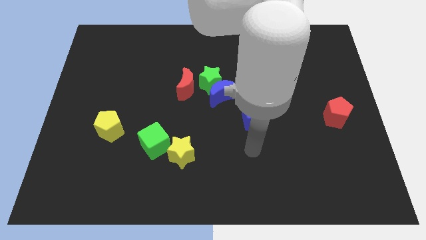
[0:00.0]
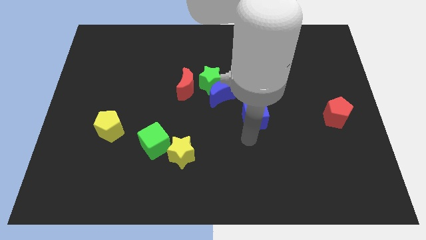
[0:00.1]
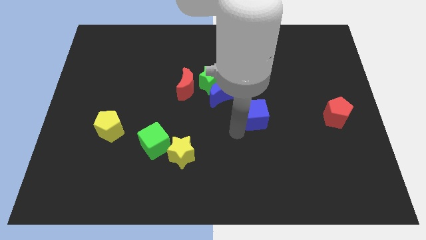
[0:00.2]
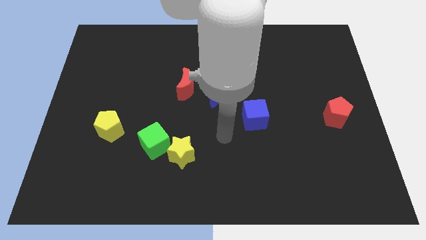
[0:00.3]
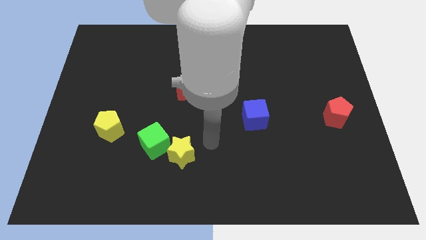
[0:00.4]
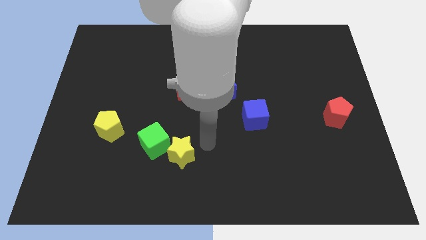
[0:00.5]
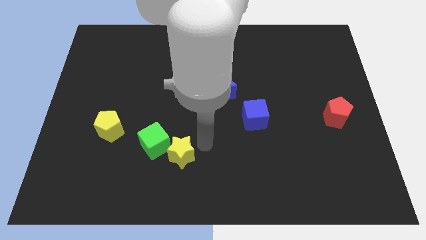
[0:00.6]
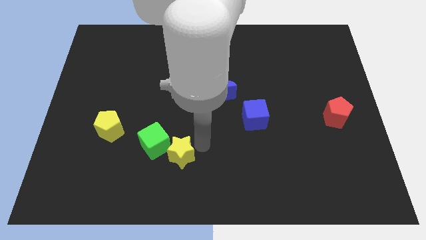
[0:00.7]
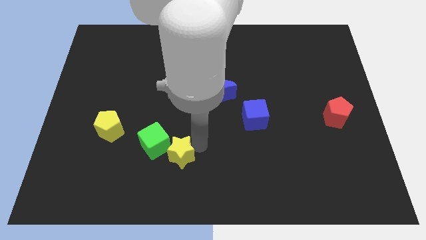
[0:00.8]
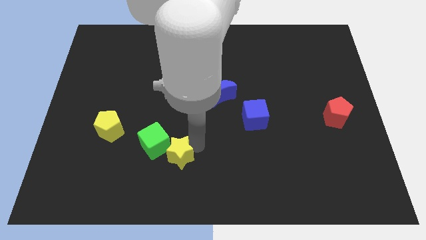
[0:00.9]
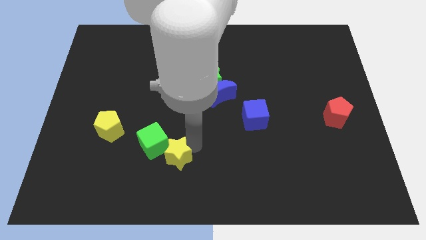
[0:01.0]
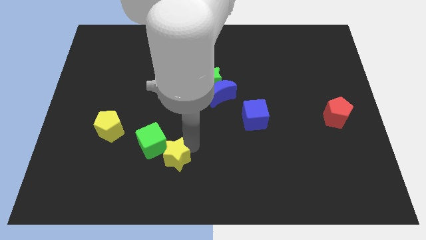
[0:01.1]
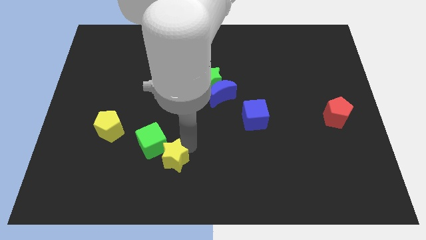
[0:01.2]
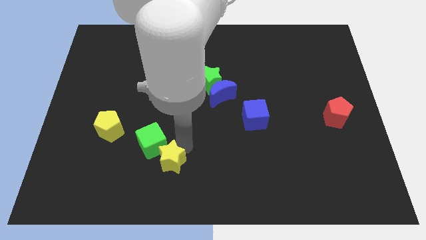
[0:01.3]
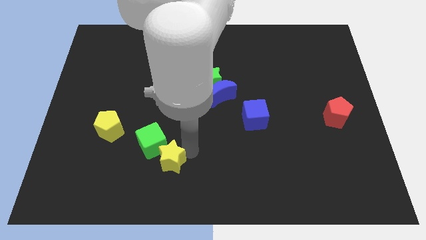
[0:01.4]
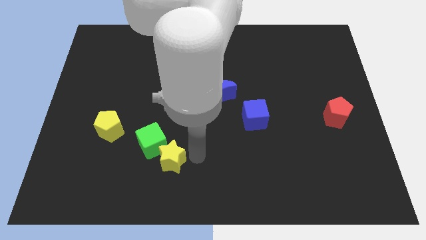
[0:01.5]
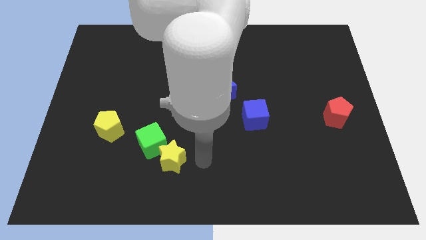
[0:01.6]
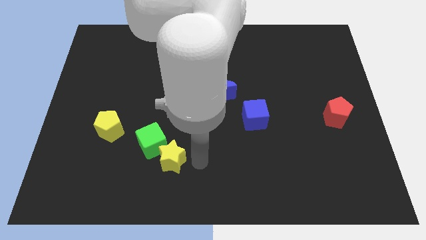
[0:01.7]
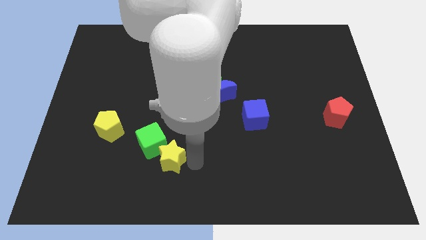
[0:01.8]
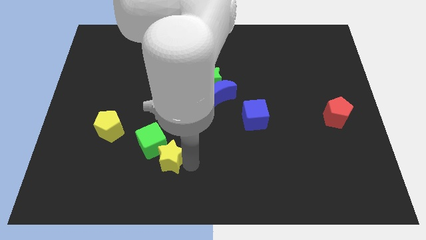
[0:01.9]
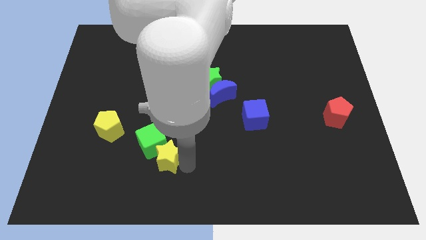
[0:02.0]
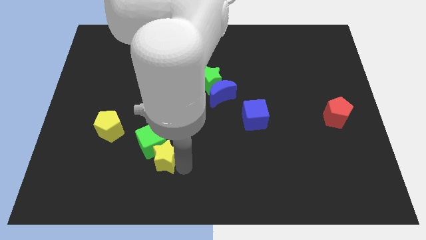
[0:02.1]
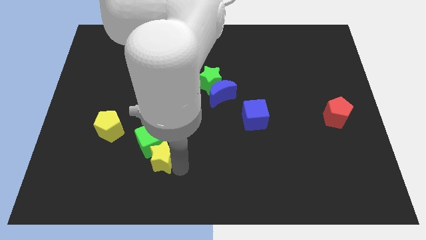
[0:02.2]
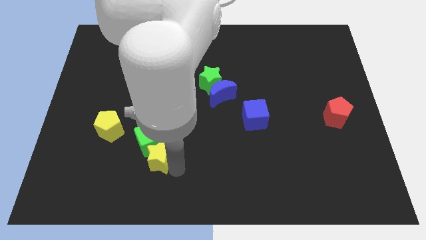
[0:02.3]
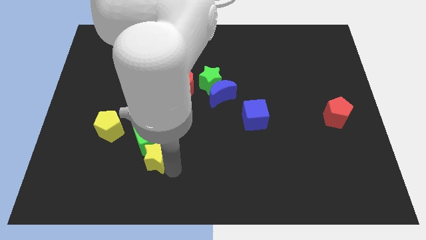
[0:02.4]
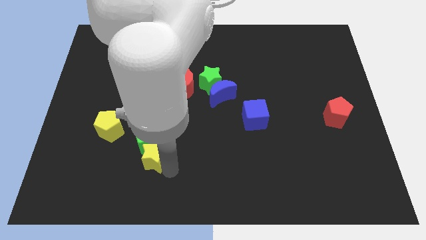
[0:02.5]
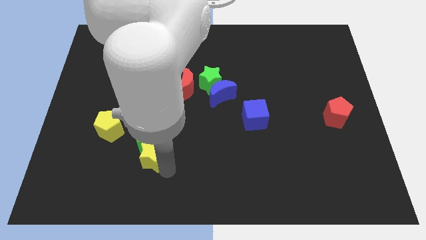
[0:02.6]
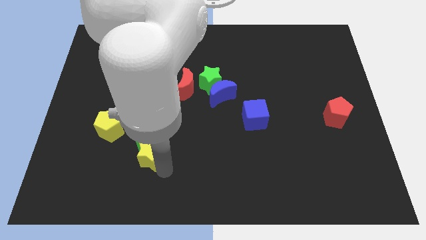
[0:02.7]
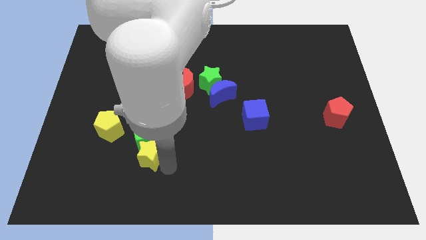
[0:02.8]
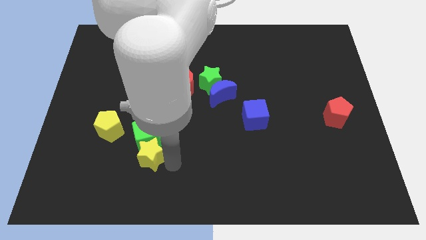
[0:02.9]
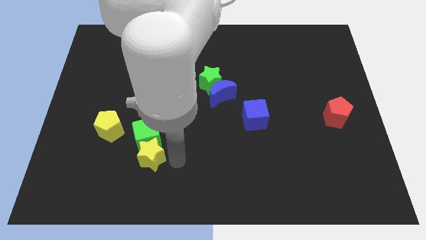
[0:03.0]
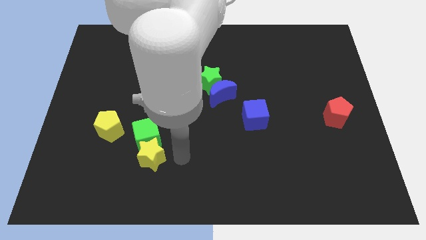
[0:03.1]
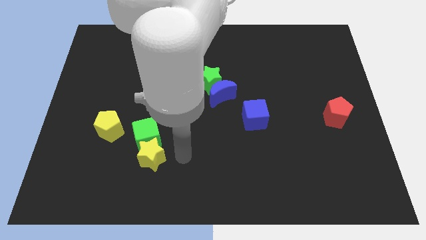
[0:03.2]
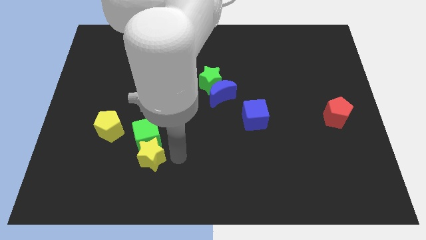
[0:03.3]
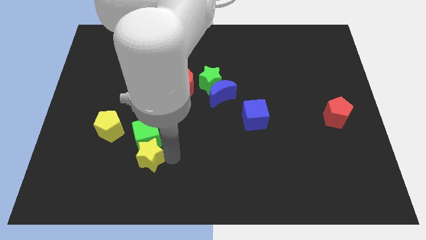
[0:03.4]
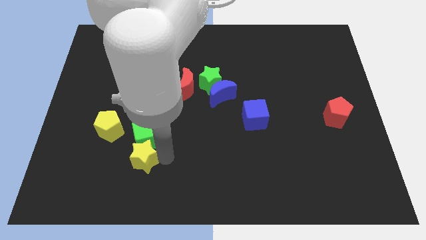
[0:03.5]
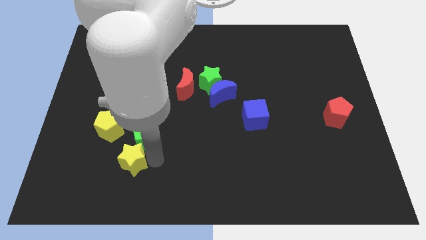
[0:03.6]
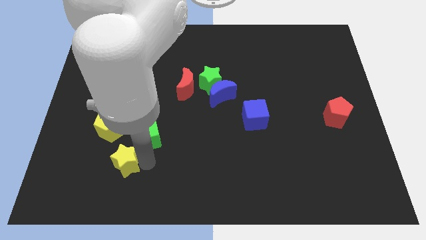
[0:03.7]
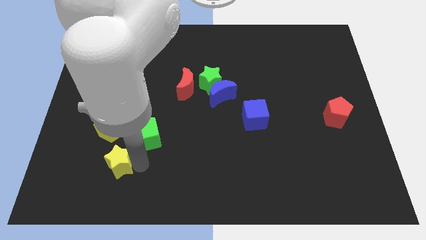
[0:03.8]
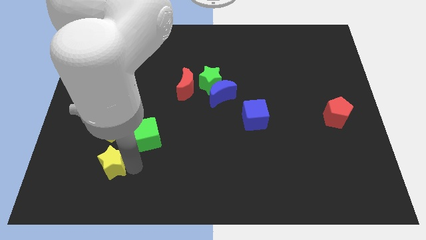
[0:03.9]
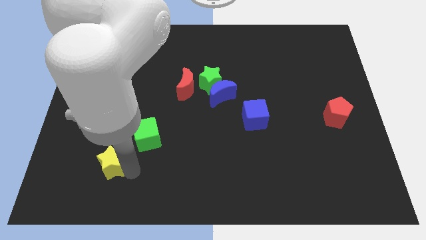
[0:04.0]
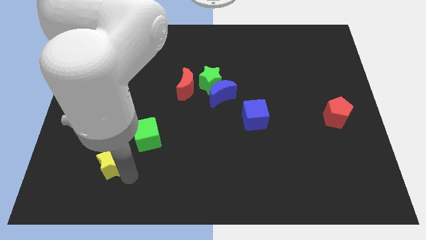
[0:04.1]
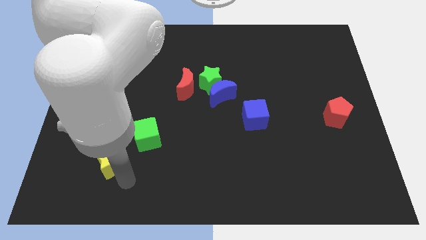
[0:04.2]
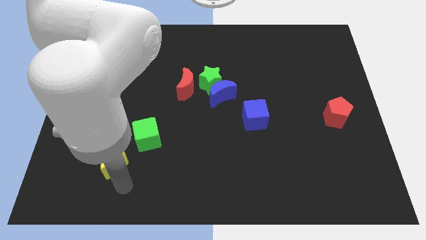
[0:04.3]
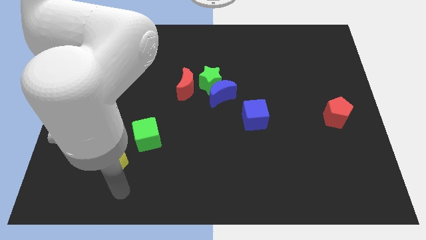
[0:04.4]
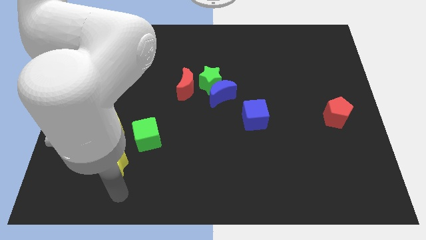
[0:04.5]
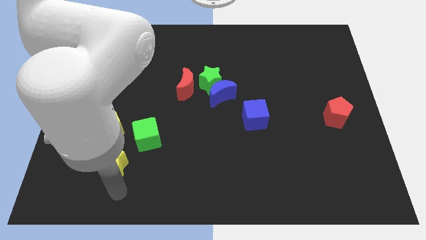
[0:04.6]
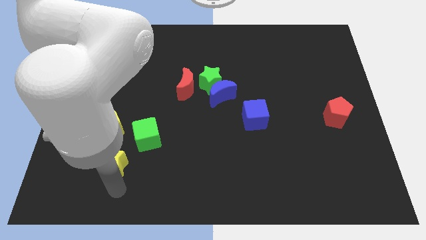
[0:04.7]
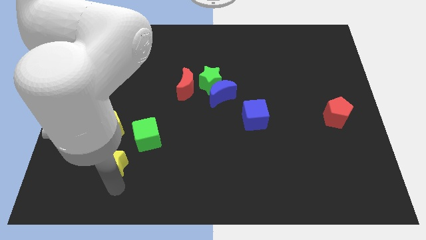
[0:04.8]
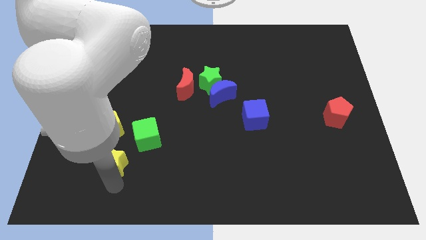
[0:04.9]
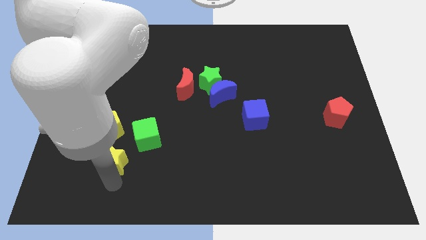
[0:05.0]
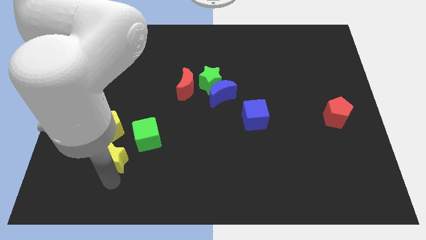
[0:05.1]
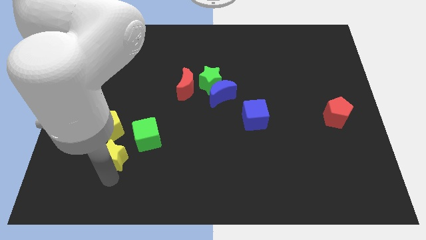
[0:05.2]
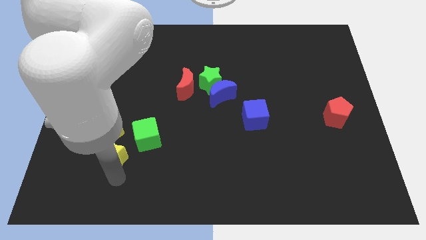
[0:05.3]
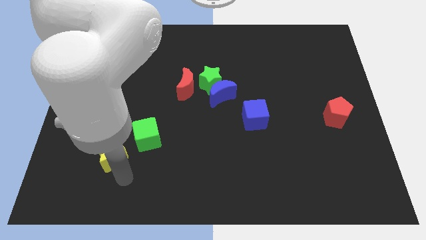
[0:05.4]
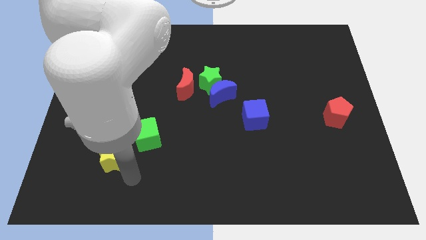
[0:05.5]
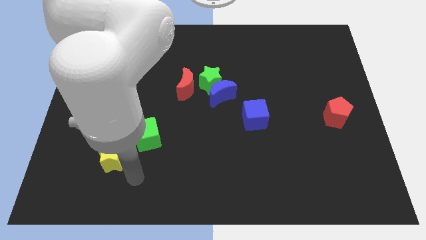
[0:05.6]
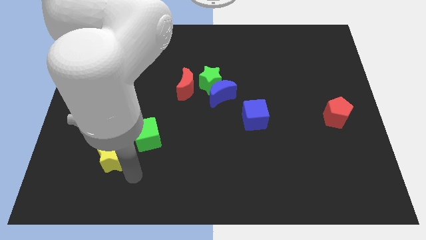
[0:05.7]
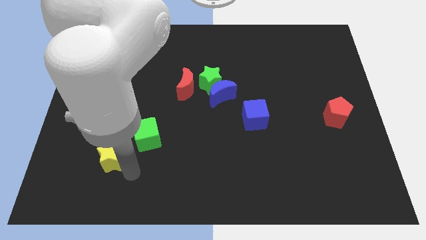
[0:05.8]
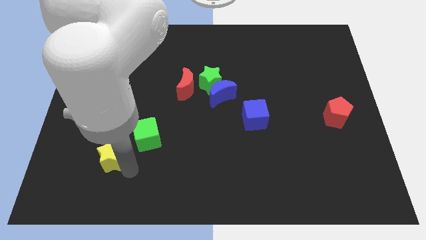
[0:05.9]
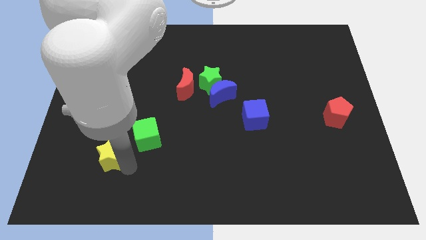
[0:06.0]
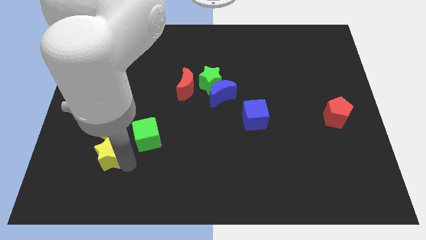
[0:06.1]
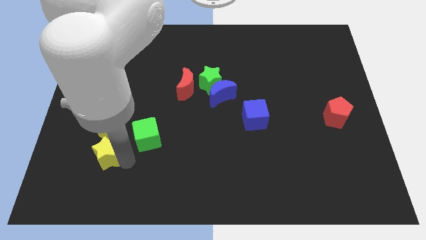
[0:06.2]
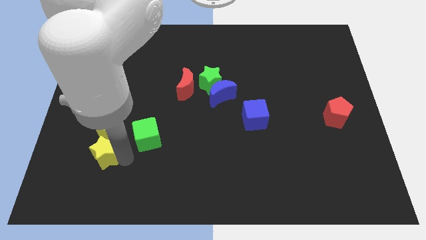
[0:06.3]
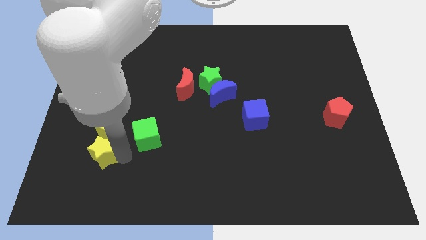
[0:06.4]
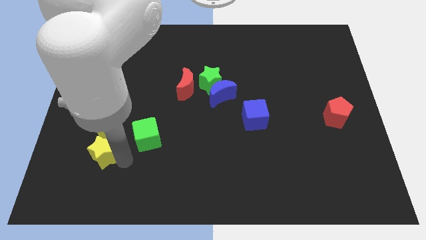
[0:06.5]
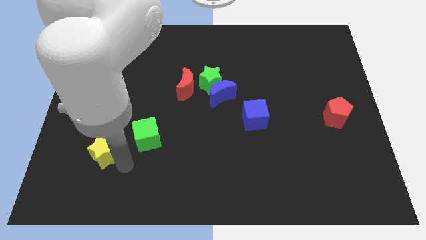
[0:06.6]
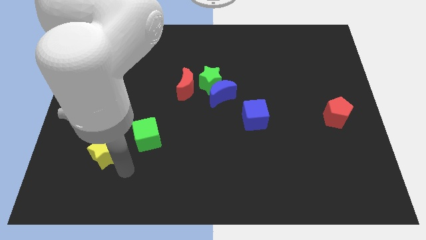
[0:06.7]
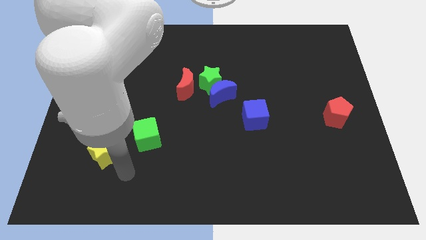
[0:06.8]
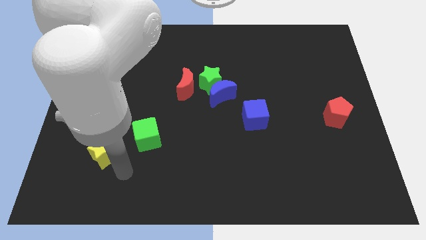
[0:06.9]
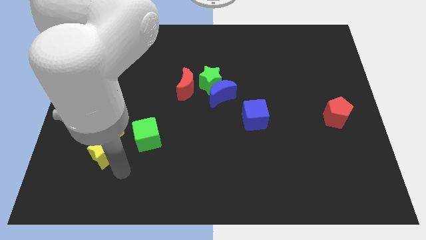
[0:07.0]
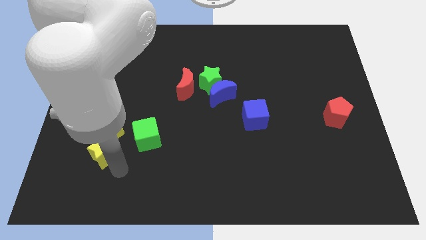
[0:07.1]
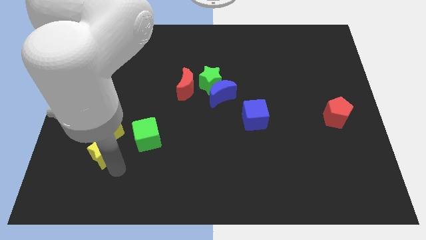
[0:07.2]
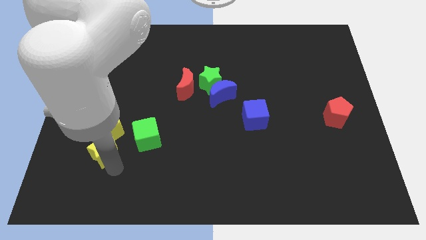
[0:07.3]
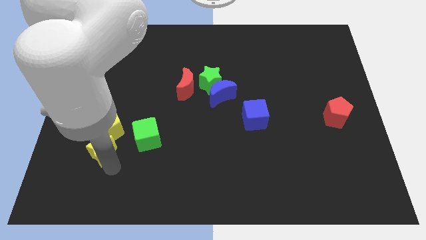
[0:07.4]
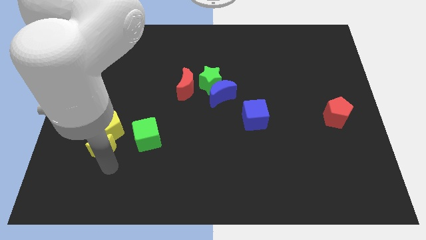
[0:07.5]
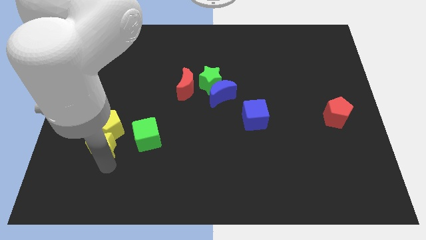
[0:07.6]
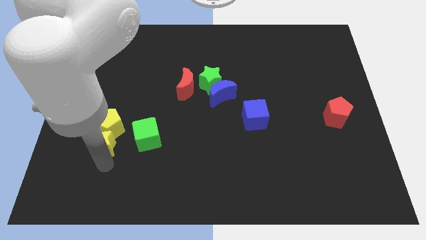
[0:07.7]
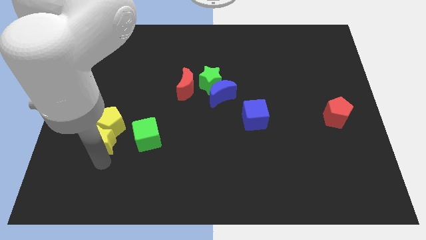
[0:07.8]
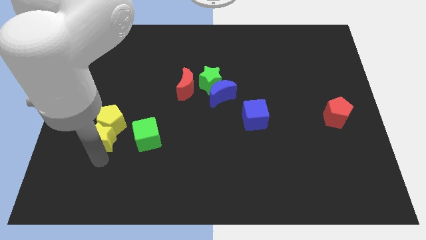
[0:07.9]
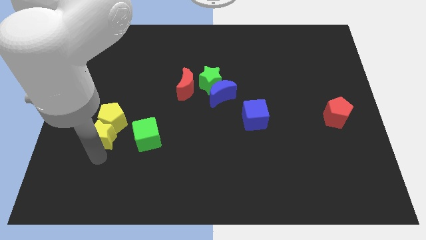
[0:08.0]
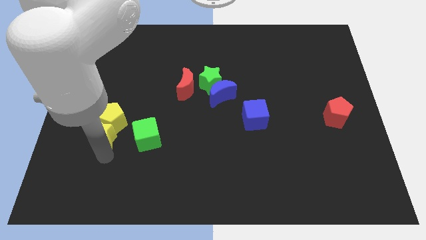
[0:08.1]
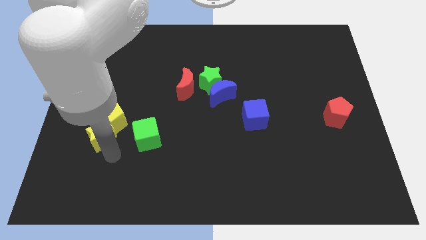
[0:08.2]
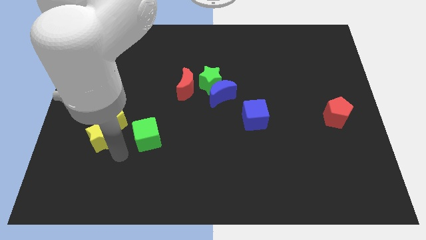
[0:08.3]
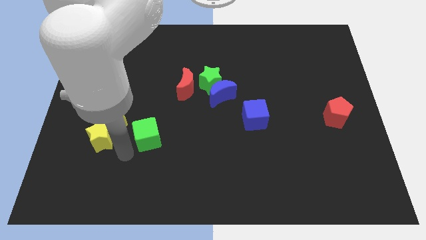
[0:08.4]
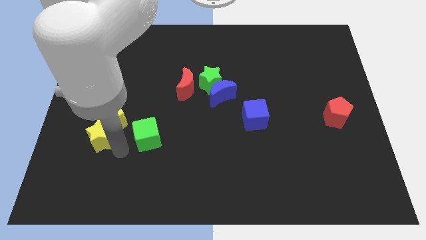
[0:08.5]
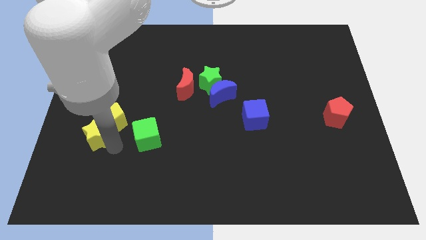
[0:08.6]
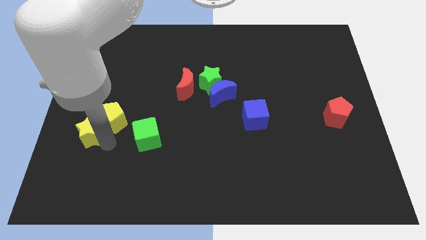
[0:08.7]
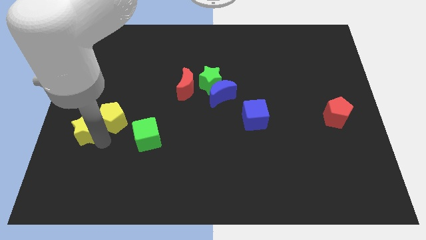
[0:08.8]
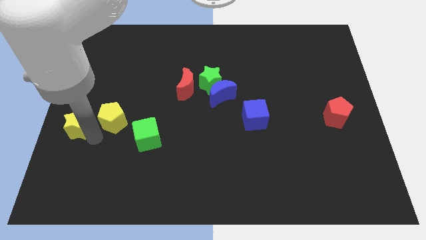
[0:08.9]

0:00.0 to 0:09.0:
push the yellow star to the center left
